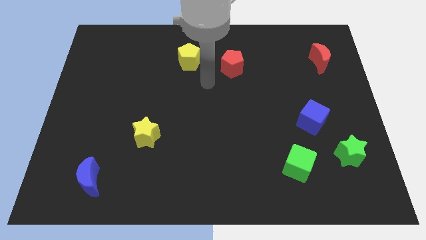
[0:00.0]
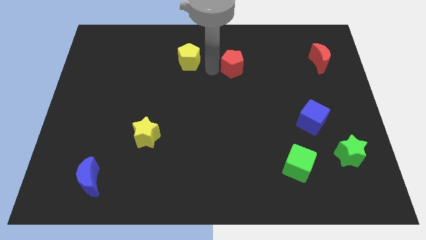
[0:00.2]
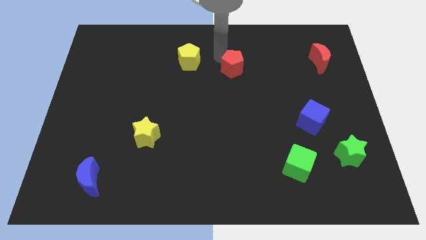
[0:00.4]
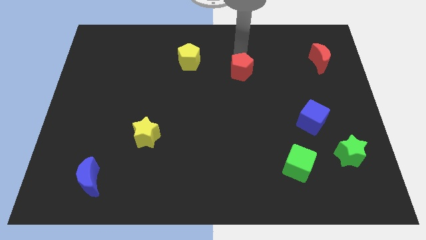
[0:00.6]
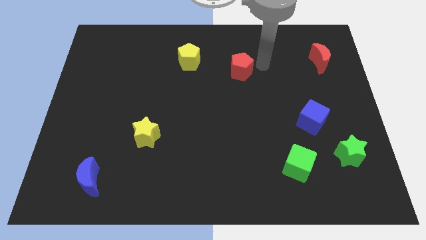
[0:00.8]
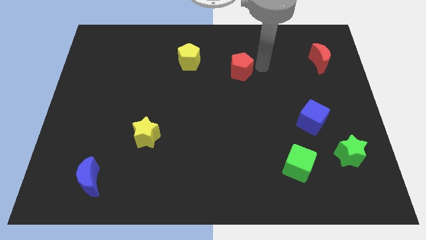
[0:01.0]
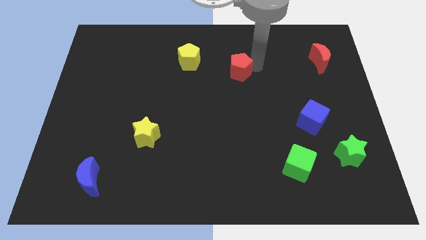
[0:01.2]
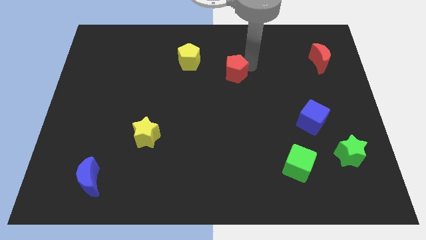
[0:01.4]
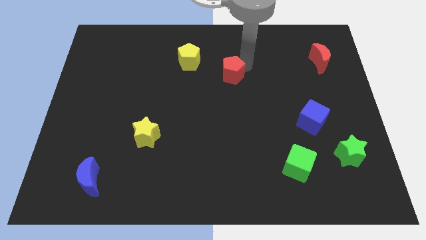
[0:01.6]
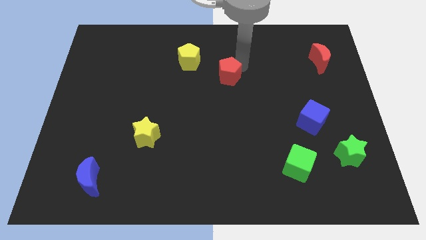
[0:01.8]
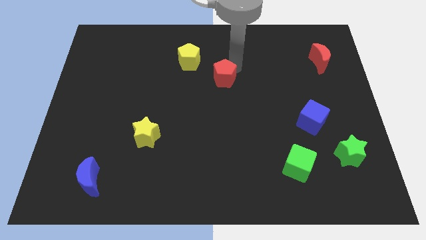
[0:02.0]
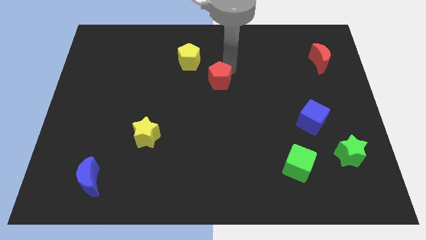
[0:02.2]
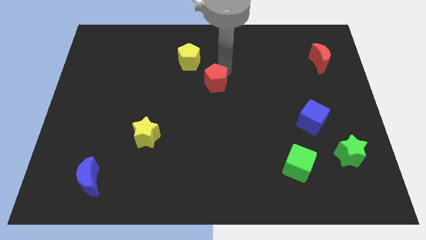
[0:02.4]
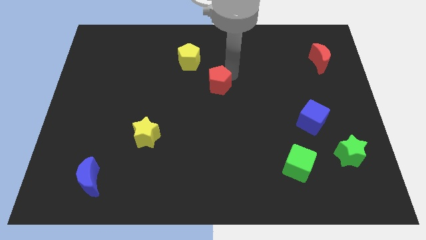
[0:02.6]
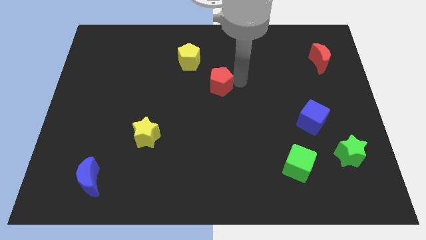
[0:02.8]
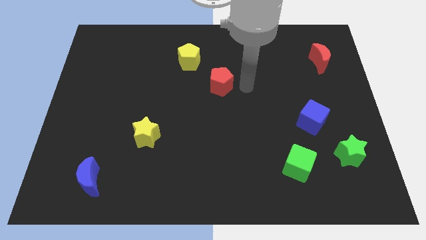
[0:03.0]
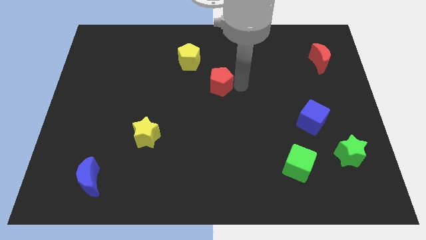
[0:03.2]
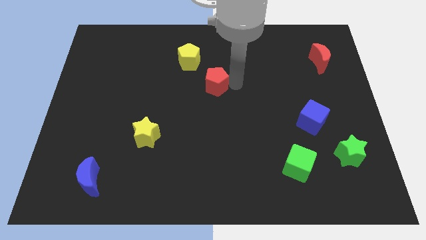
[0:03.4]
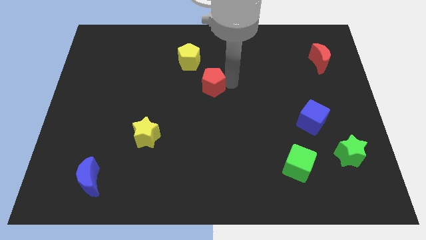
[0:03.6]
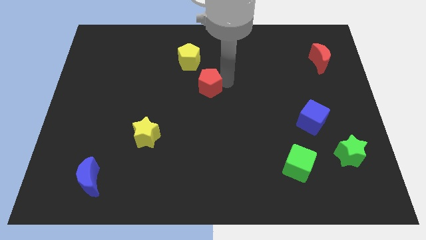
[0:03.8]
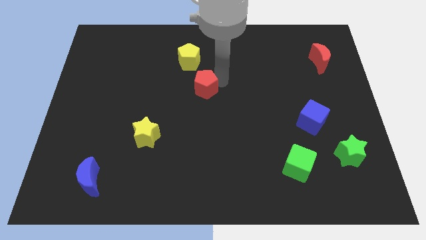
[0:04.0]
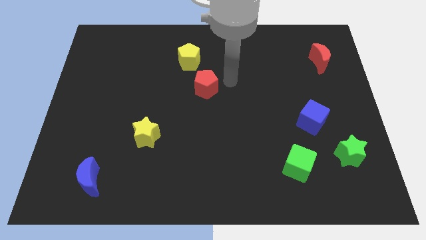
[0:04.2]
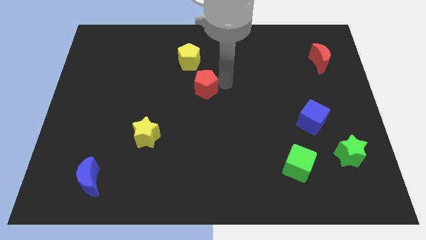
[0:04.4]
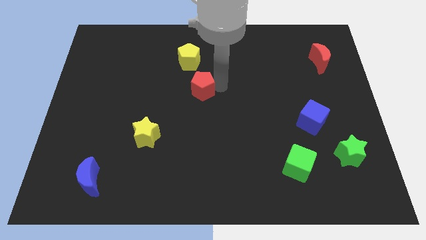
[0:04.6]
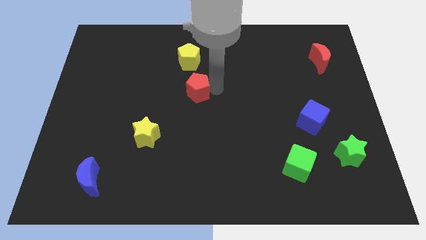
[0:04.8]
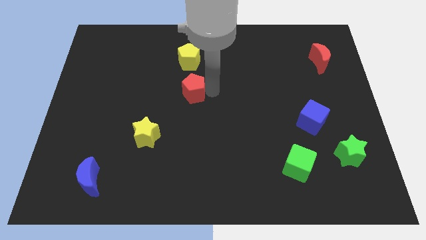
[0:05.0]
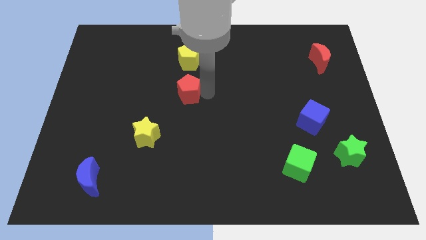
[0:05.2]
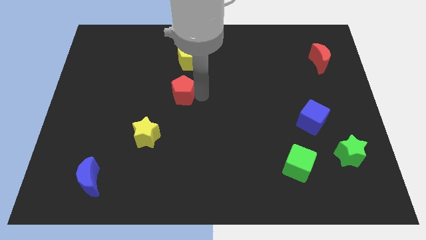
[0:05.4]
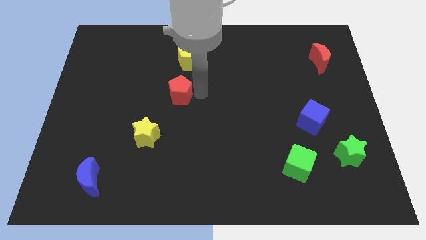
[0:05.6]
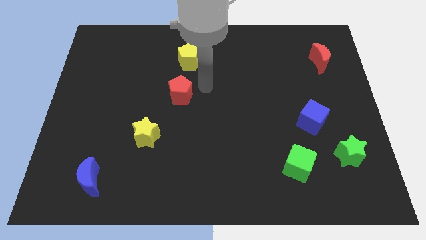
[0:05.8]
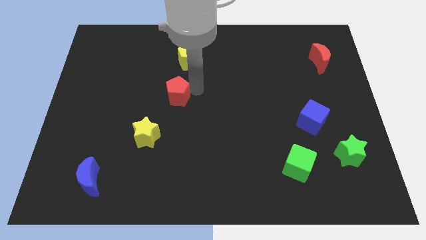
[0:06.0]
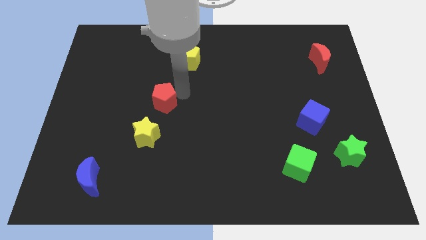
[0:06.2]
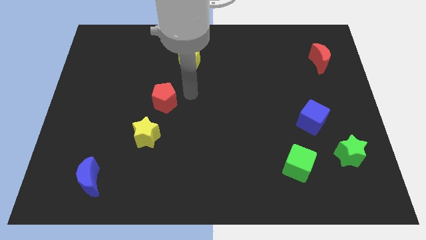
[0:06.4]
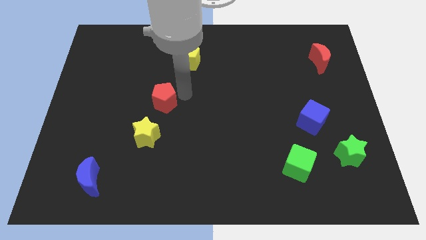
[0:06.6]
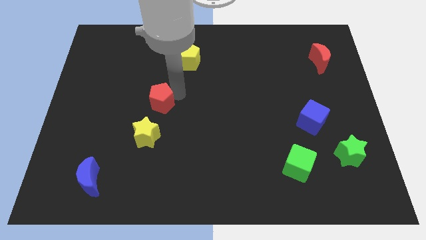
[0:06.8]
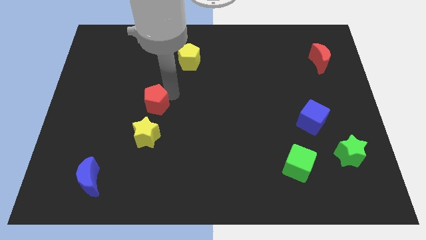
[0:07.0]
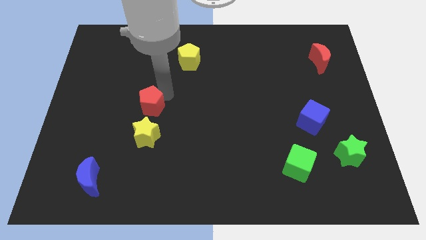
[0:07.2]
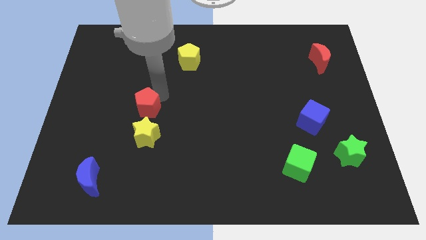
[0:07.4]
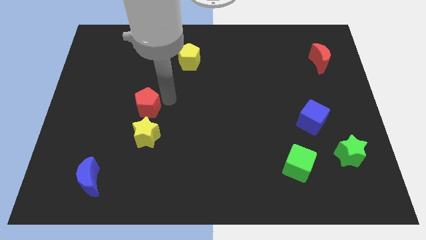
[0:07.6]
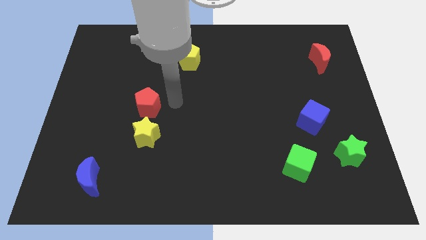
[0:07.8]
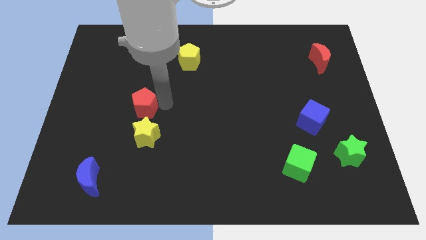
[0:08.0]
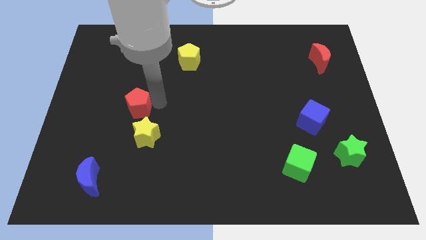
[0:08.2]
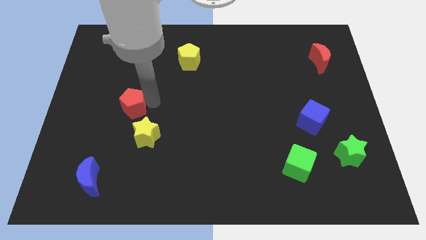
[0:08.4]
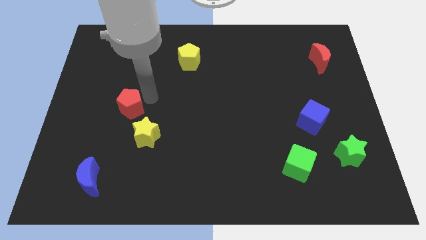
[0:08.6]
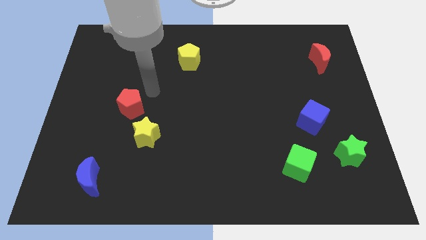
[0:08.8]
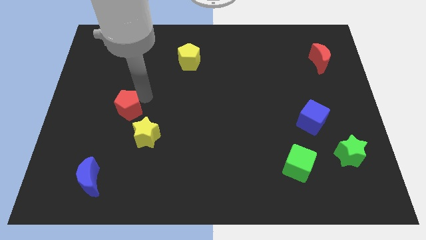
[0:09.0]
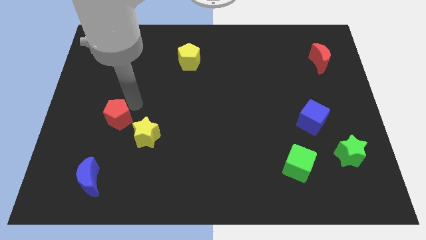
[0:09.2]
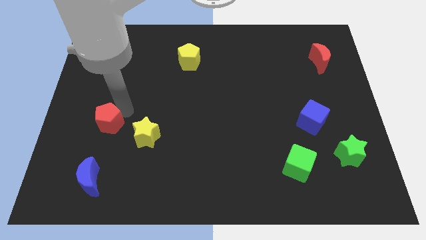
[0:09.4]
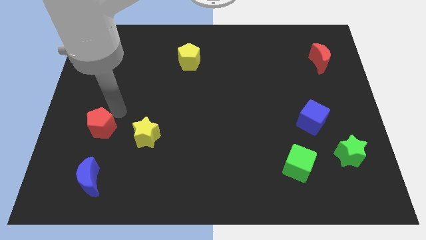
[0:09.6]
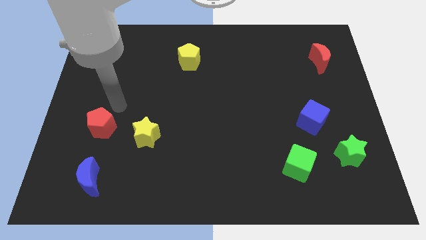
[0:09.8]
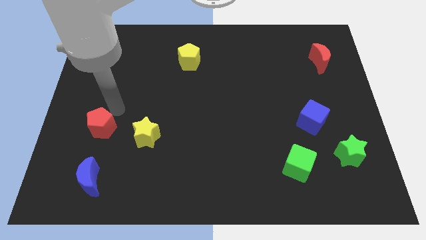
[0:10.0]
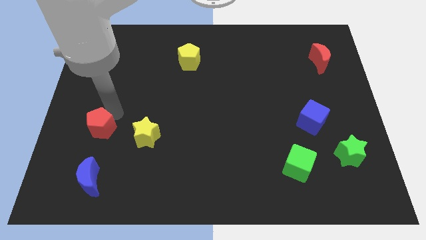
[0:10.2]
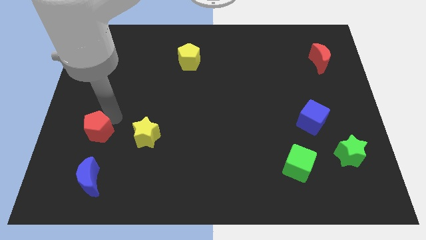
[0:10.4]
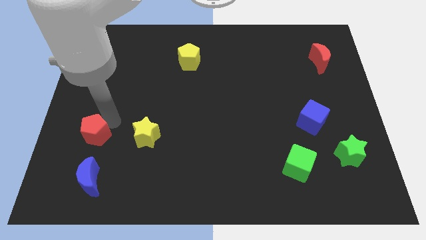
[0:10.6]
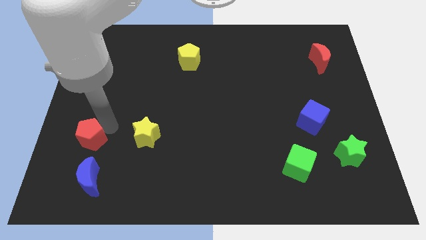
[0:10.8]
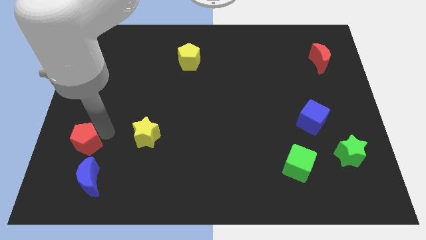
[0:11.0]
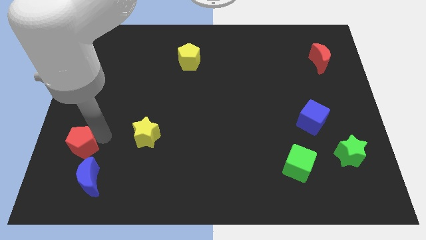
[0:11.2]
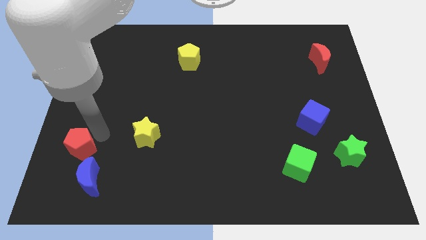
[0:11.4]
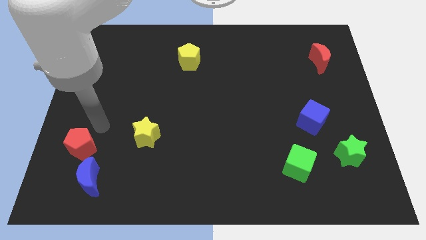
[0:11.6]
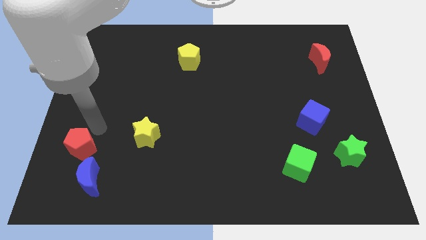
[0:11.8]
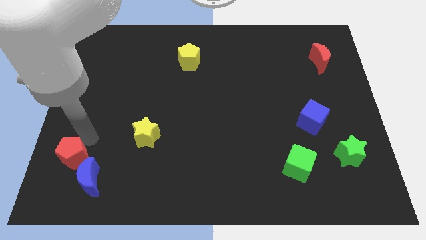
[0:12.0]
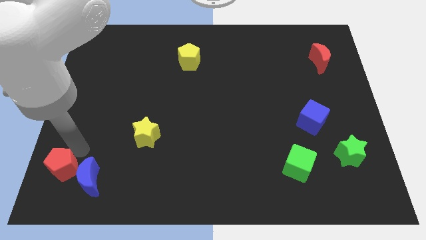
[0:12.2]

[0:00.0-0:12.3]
put the red pentagon to the bottom left
